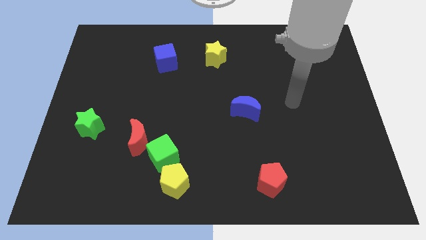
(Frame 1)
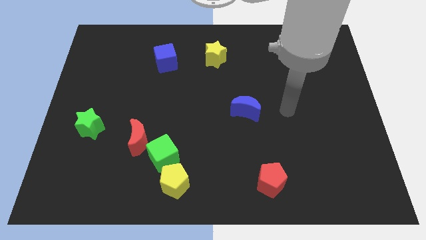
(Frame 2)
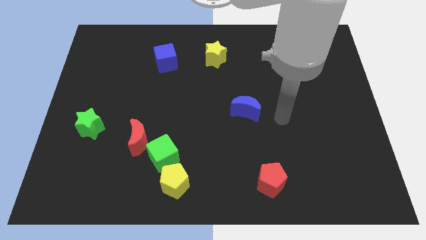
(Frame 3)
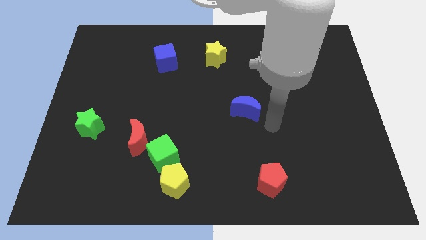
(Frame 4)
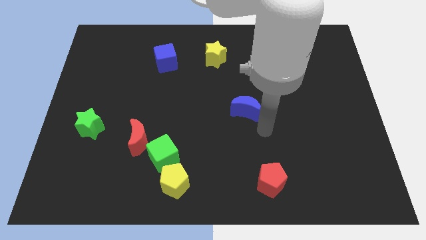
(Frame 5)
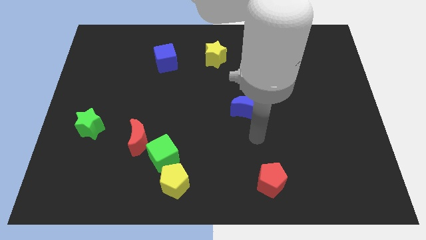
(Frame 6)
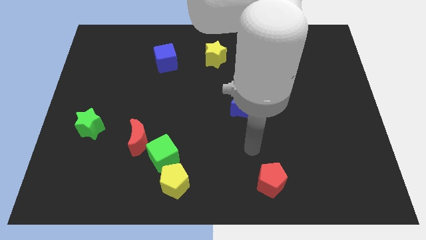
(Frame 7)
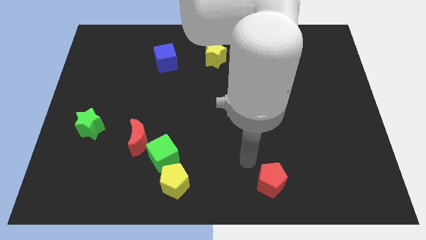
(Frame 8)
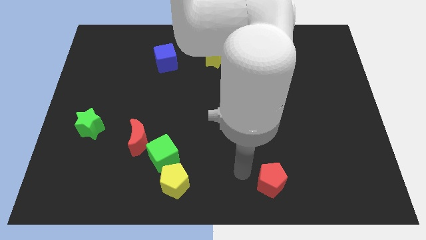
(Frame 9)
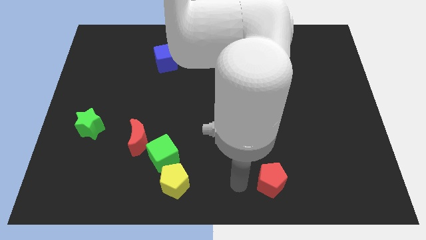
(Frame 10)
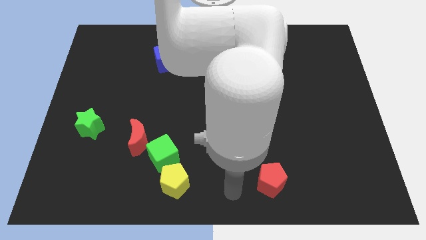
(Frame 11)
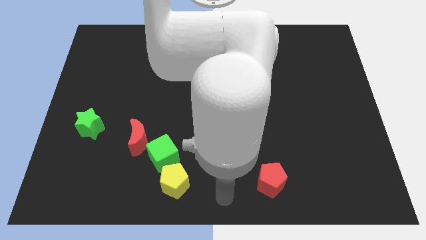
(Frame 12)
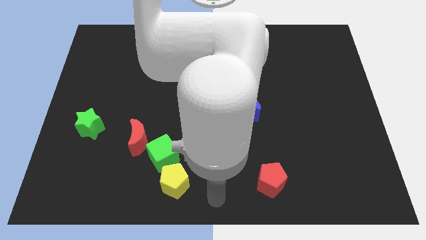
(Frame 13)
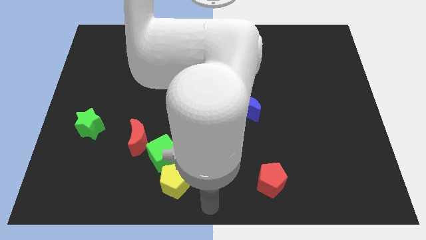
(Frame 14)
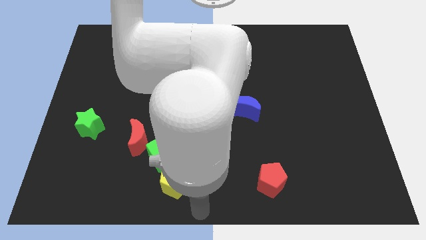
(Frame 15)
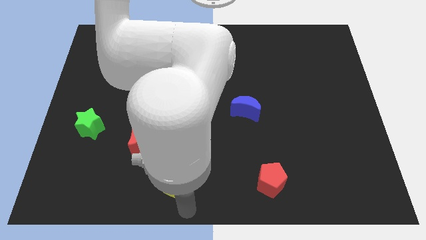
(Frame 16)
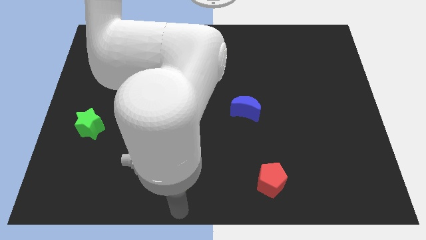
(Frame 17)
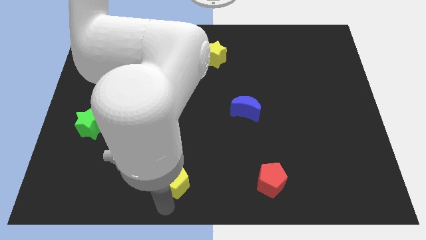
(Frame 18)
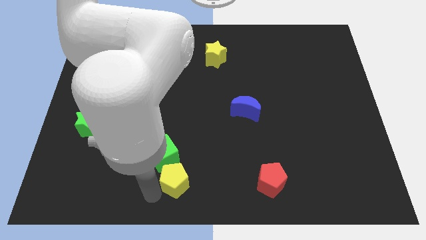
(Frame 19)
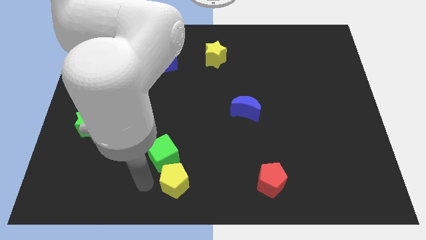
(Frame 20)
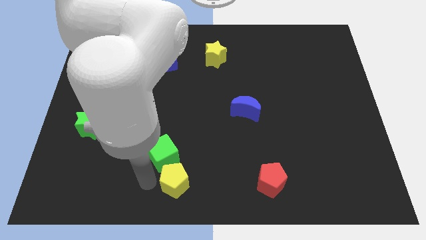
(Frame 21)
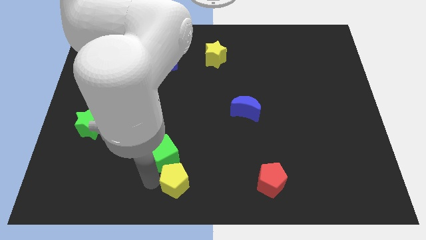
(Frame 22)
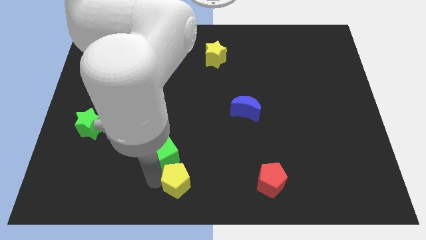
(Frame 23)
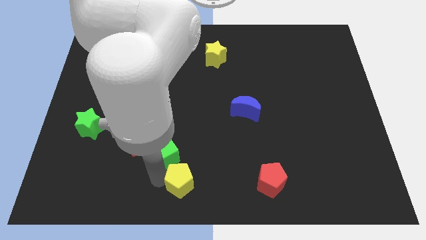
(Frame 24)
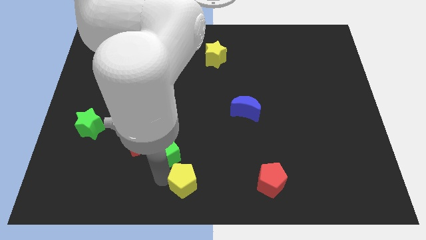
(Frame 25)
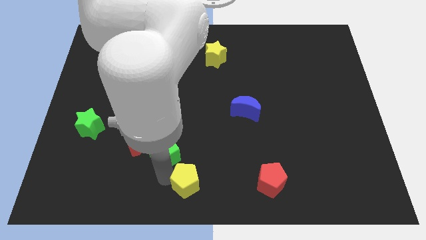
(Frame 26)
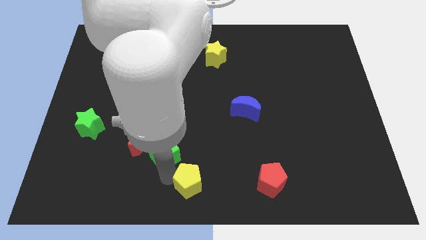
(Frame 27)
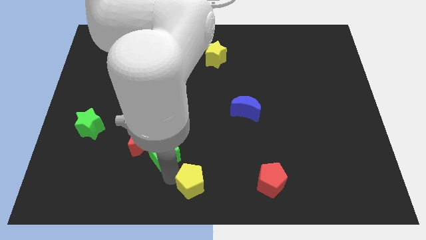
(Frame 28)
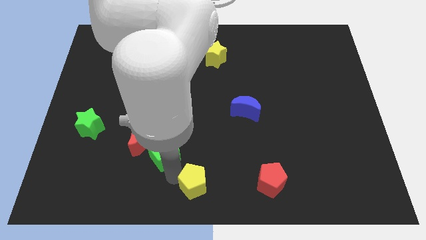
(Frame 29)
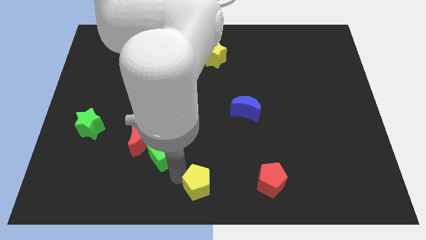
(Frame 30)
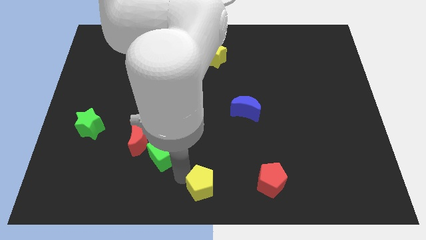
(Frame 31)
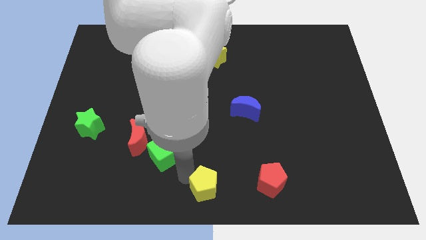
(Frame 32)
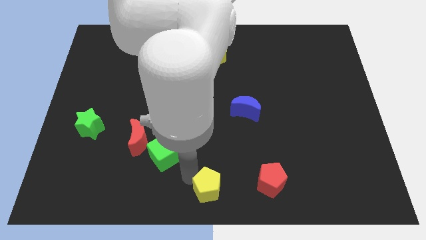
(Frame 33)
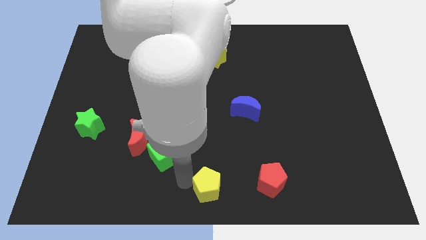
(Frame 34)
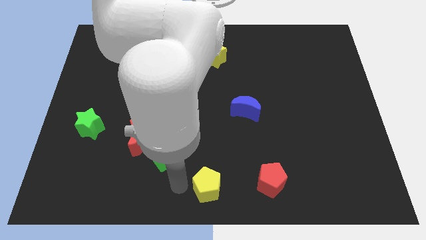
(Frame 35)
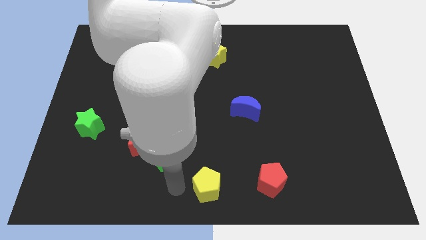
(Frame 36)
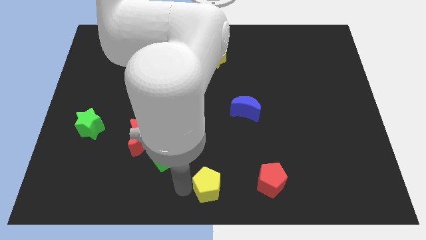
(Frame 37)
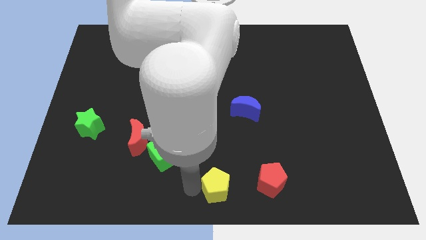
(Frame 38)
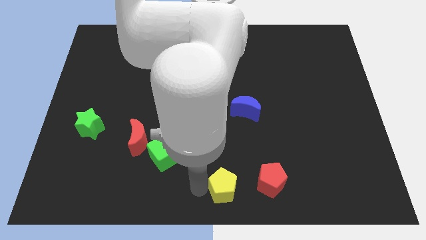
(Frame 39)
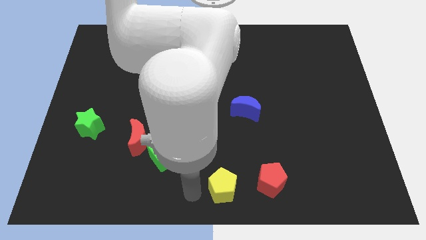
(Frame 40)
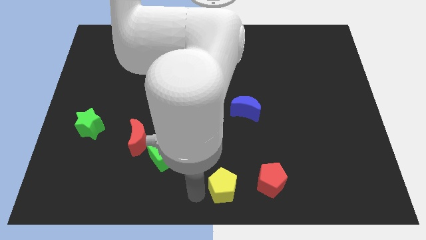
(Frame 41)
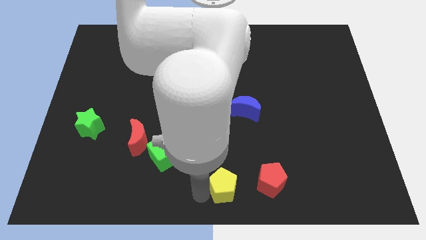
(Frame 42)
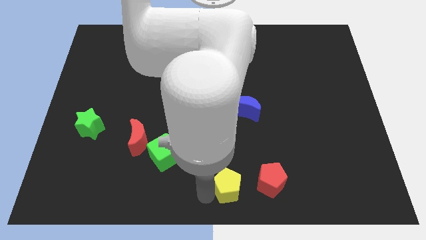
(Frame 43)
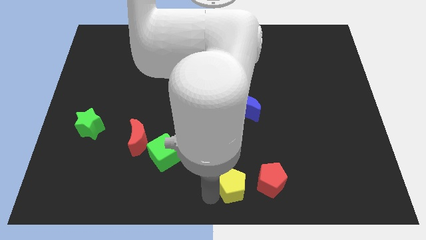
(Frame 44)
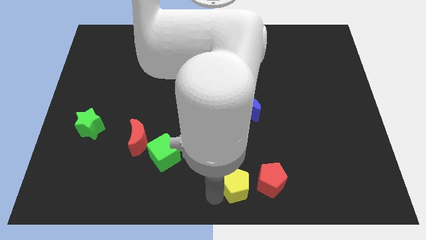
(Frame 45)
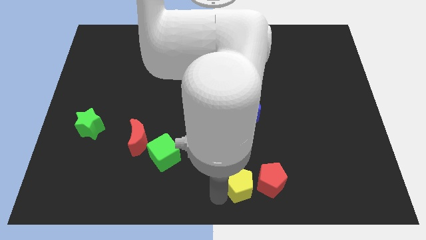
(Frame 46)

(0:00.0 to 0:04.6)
push the yellow pentagon close to the red pentagon

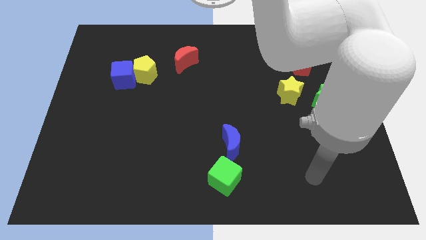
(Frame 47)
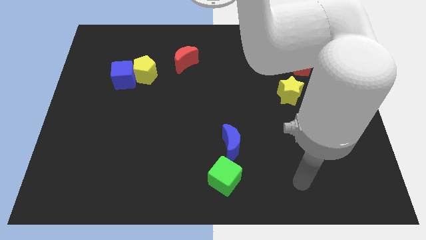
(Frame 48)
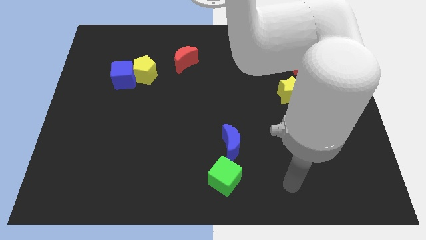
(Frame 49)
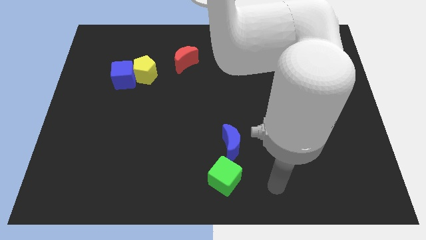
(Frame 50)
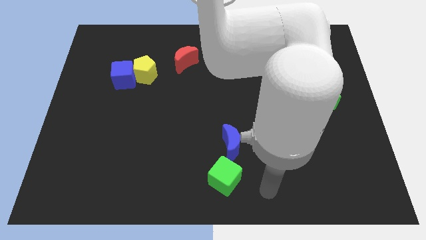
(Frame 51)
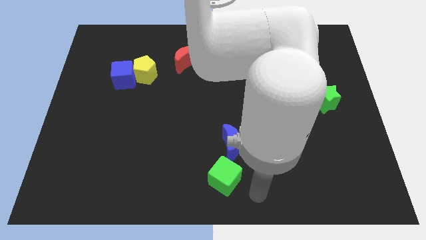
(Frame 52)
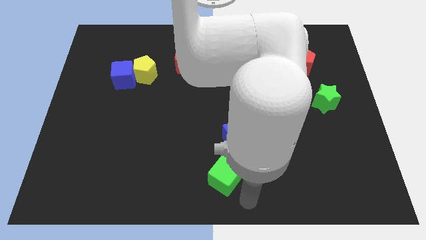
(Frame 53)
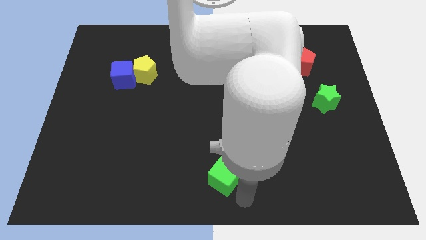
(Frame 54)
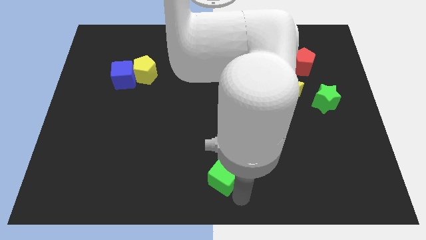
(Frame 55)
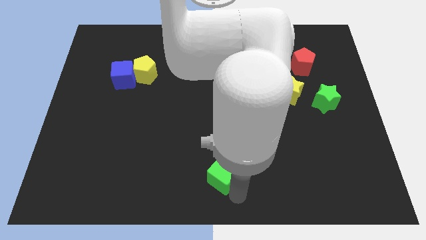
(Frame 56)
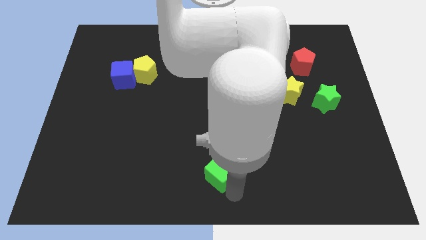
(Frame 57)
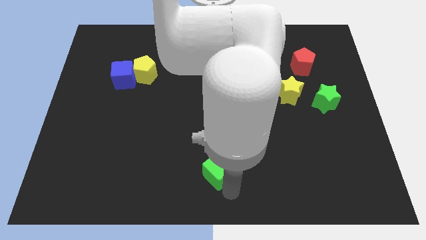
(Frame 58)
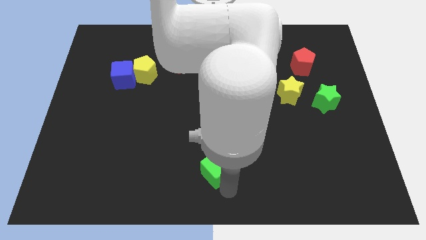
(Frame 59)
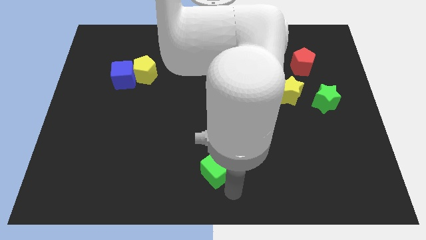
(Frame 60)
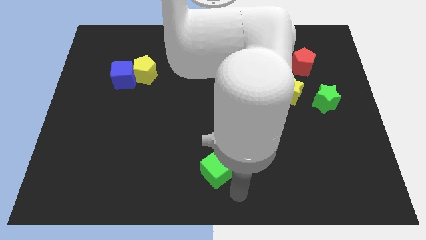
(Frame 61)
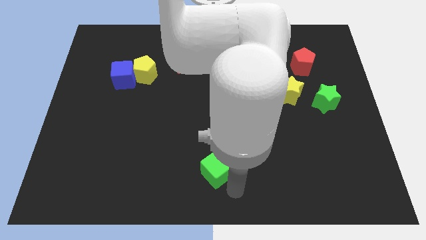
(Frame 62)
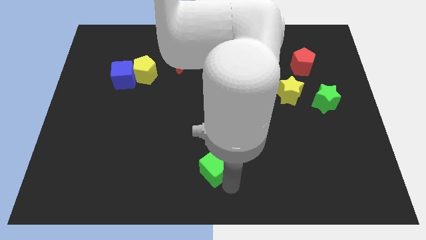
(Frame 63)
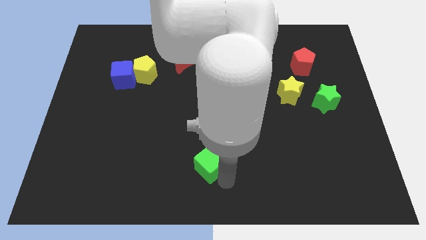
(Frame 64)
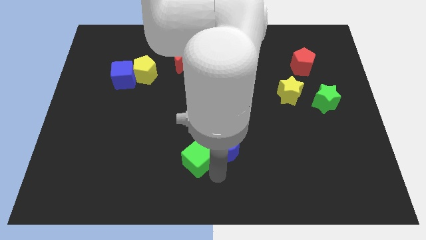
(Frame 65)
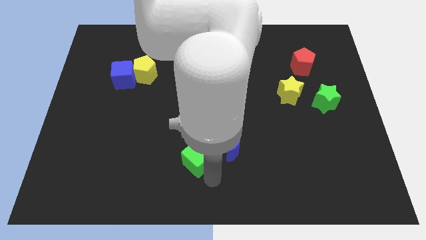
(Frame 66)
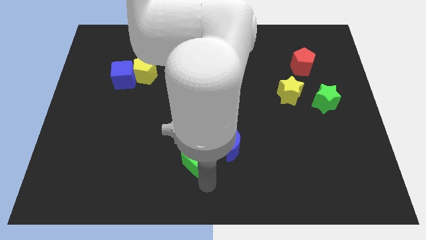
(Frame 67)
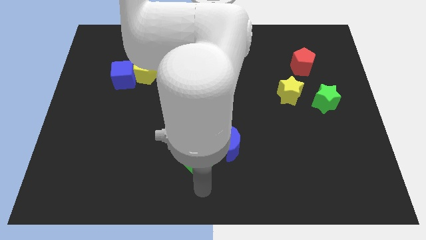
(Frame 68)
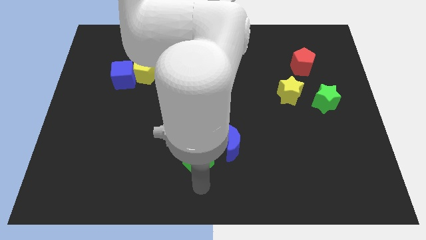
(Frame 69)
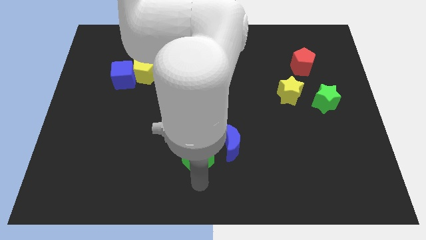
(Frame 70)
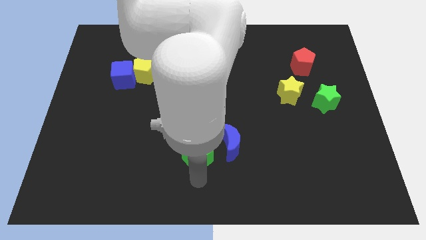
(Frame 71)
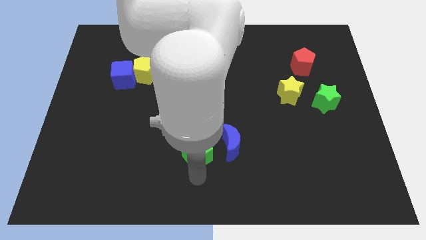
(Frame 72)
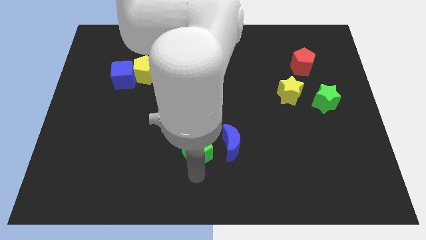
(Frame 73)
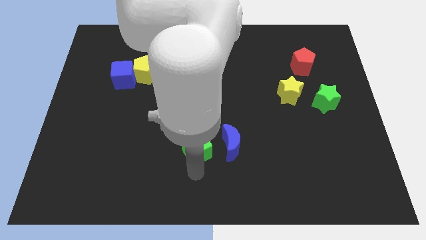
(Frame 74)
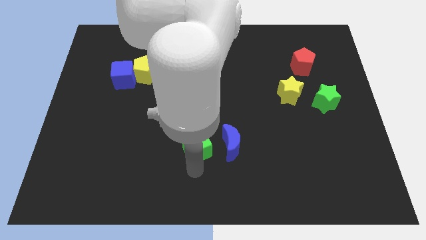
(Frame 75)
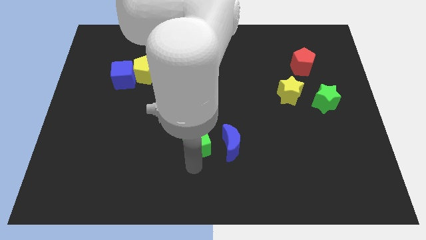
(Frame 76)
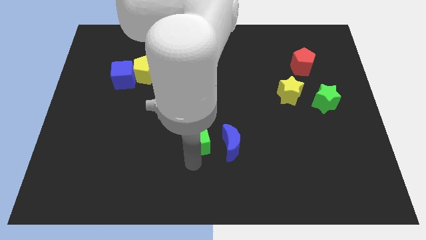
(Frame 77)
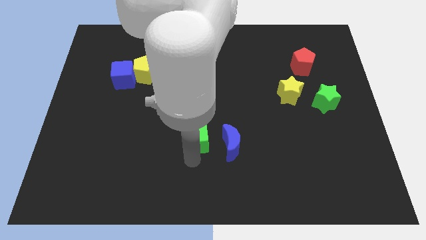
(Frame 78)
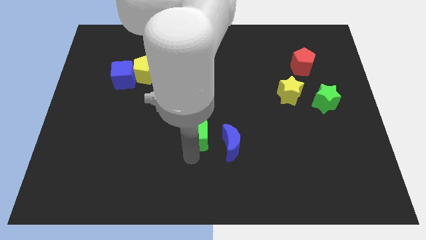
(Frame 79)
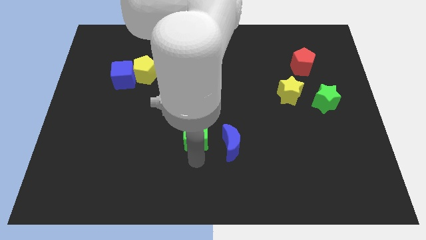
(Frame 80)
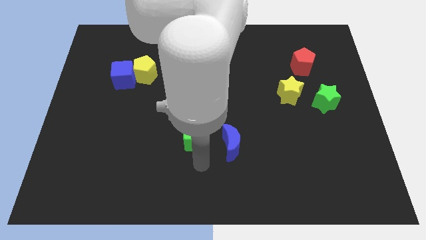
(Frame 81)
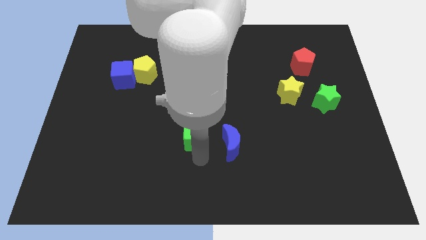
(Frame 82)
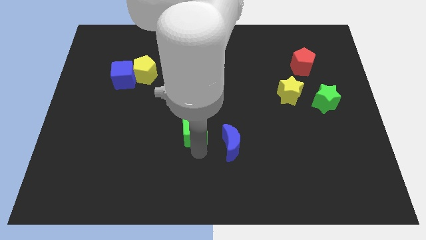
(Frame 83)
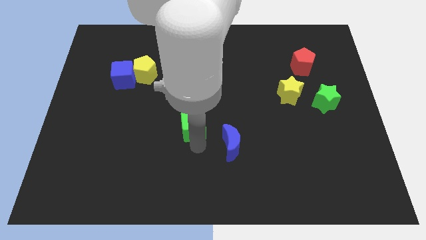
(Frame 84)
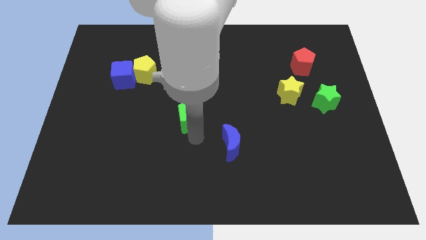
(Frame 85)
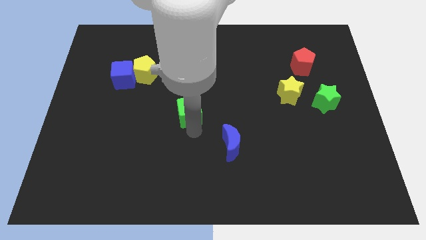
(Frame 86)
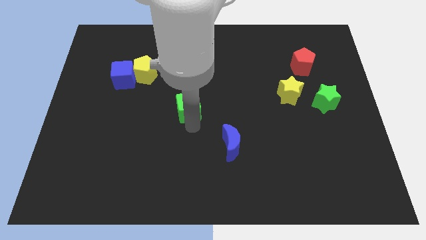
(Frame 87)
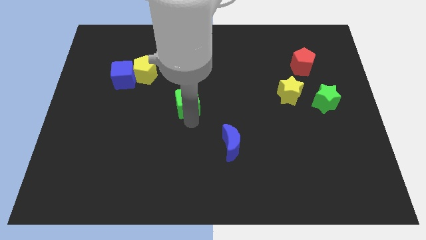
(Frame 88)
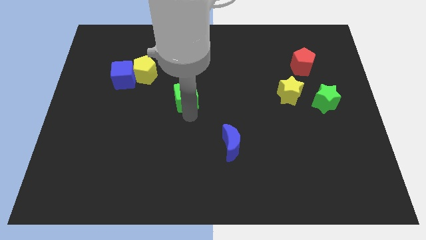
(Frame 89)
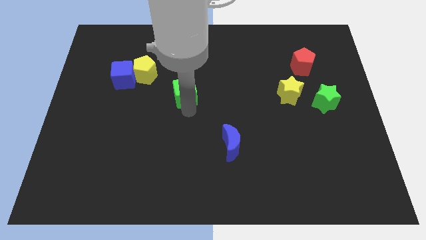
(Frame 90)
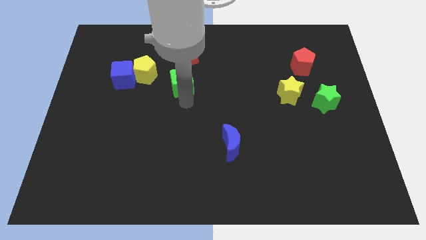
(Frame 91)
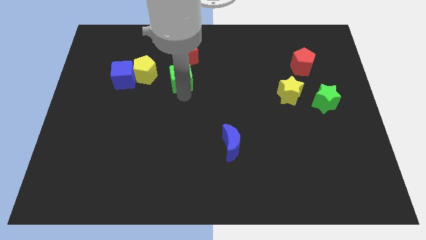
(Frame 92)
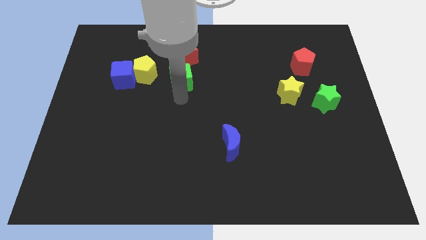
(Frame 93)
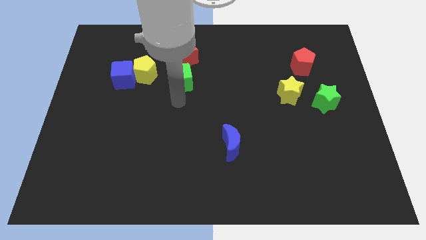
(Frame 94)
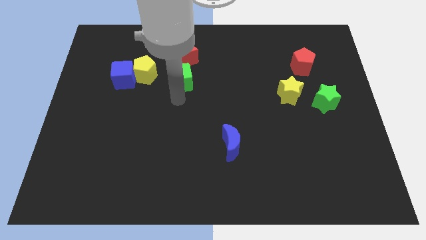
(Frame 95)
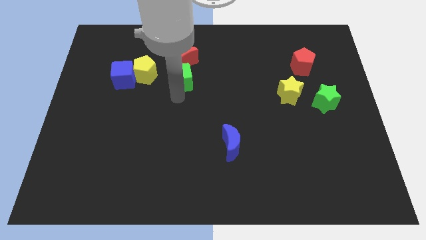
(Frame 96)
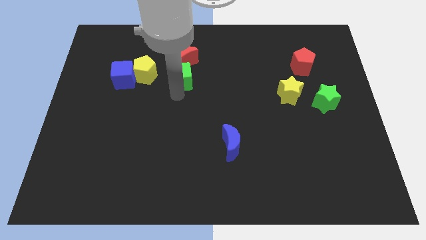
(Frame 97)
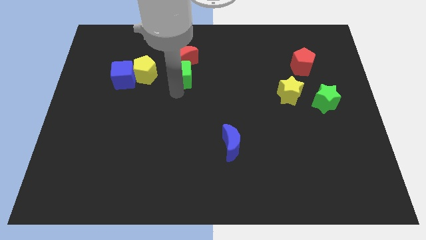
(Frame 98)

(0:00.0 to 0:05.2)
push the green cube next to the red moon
